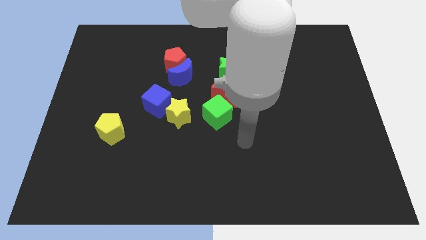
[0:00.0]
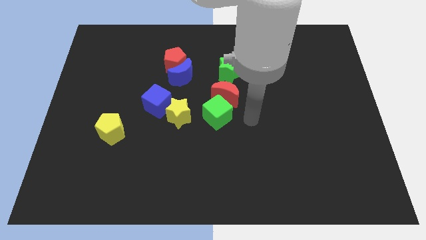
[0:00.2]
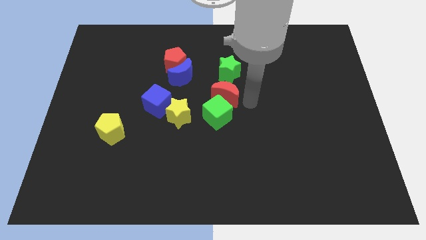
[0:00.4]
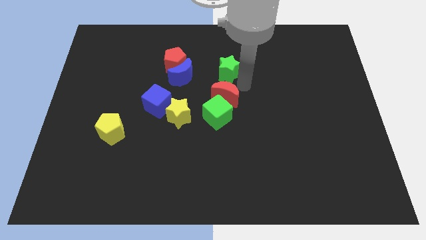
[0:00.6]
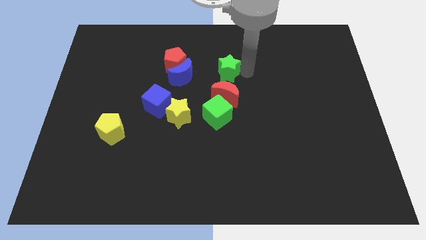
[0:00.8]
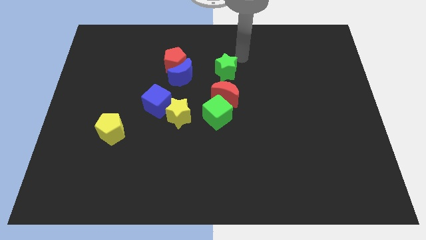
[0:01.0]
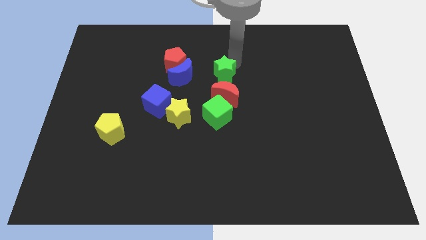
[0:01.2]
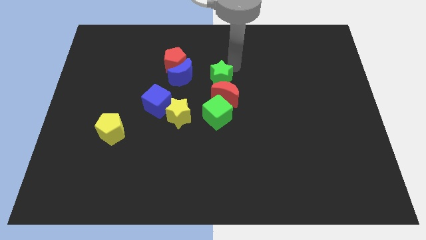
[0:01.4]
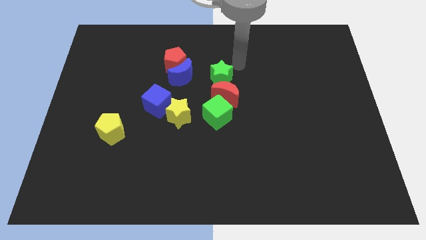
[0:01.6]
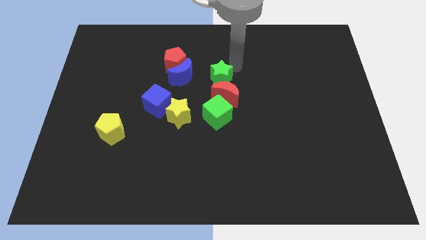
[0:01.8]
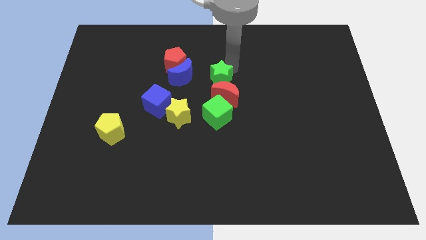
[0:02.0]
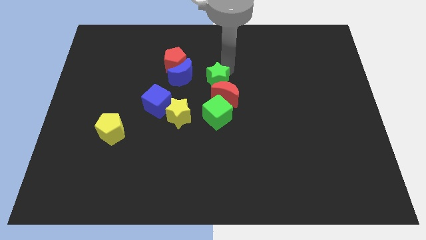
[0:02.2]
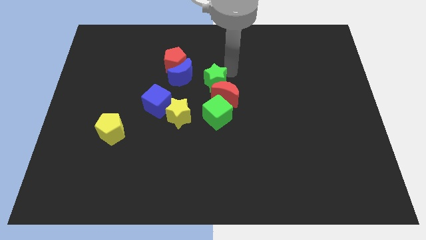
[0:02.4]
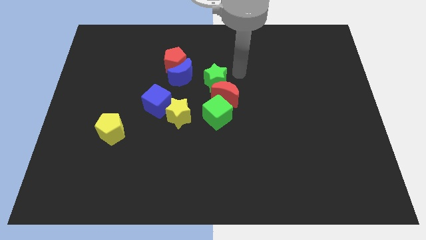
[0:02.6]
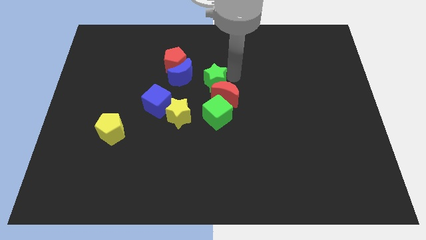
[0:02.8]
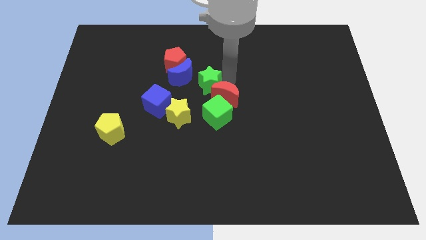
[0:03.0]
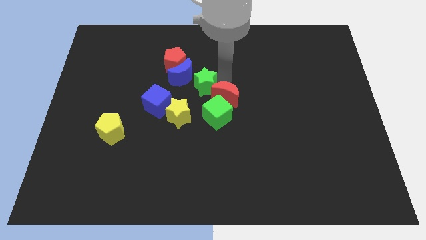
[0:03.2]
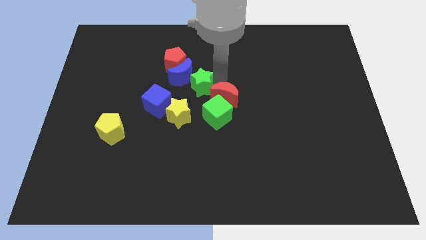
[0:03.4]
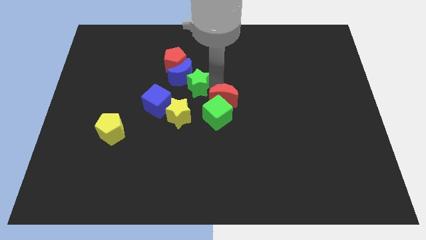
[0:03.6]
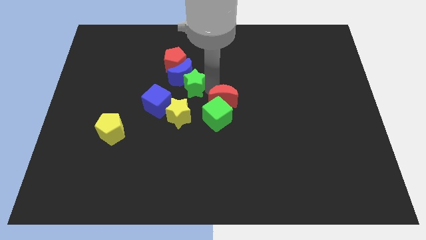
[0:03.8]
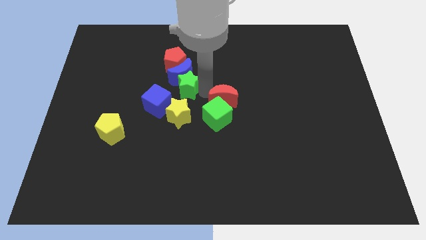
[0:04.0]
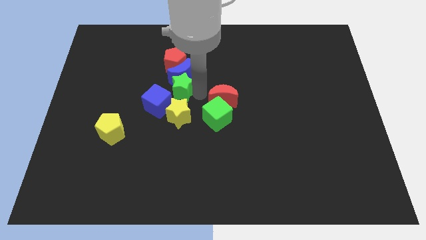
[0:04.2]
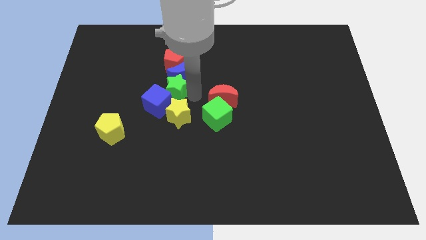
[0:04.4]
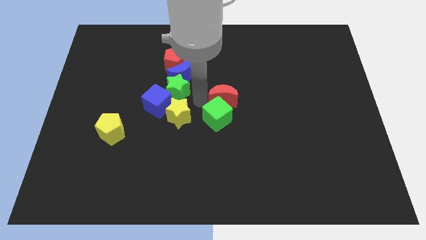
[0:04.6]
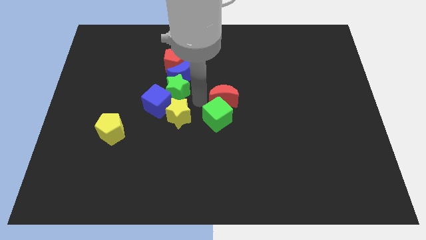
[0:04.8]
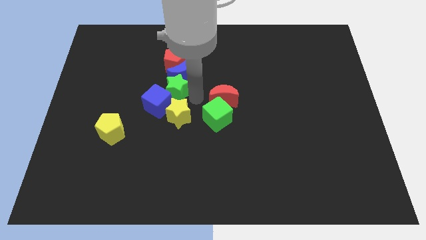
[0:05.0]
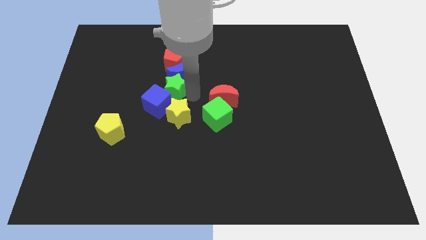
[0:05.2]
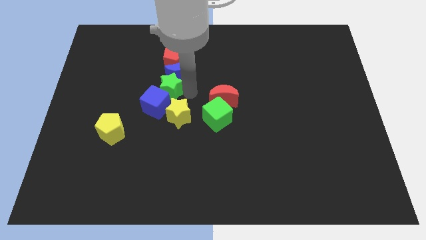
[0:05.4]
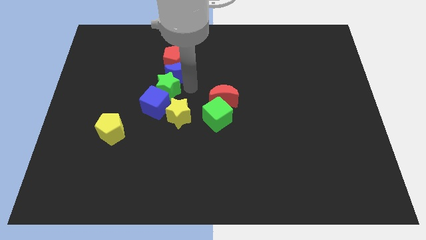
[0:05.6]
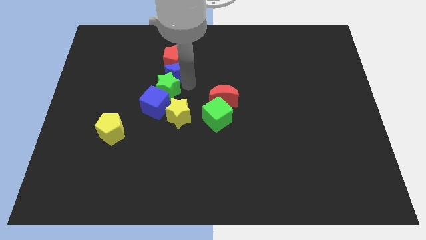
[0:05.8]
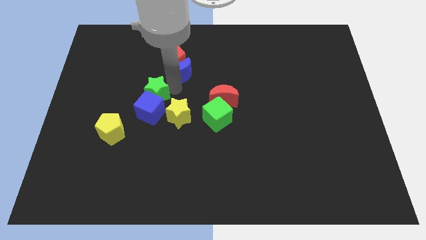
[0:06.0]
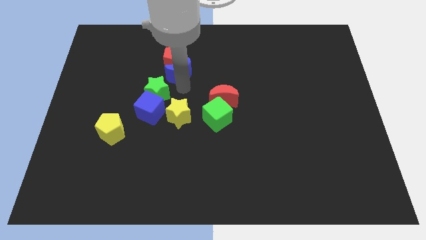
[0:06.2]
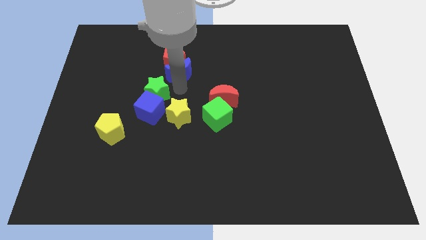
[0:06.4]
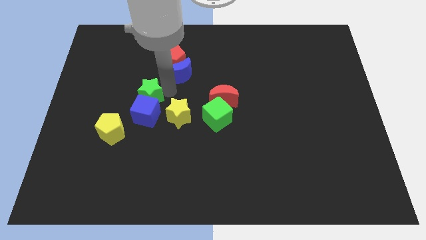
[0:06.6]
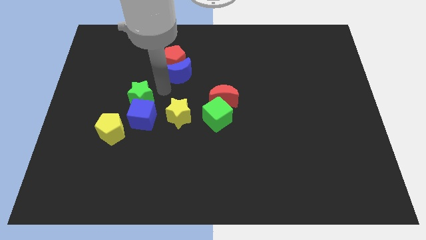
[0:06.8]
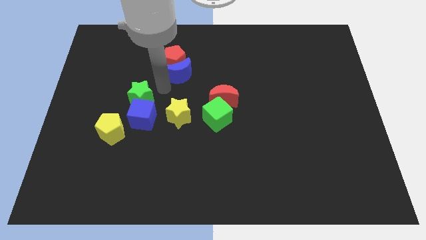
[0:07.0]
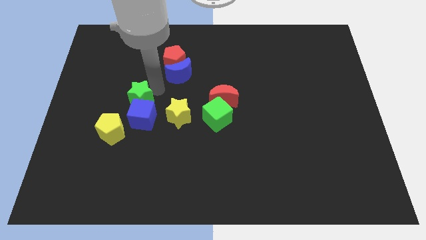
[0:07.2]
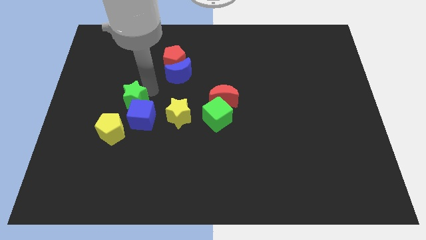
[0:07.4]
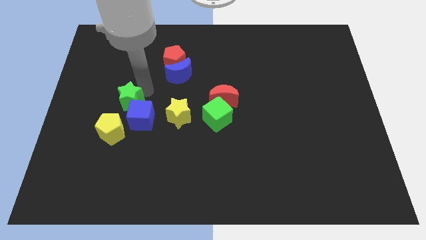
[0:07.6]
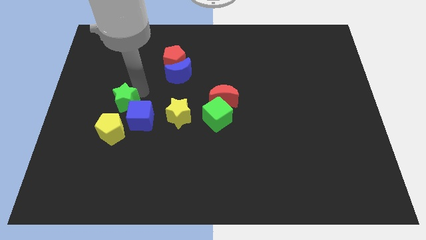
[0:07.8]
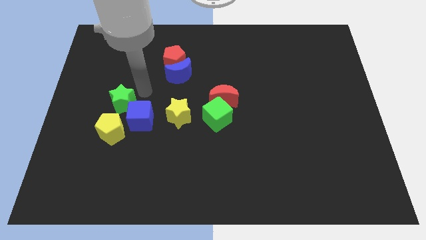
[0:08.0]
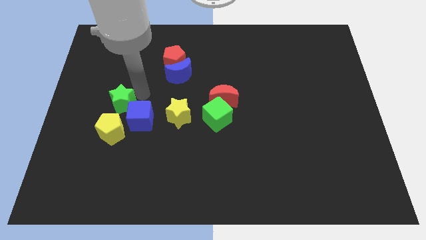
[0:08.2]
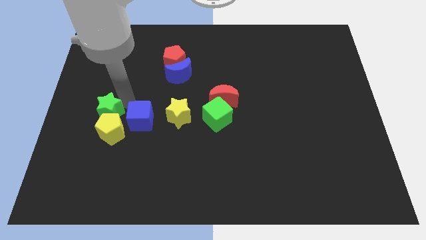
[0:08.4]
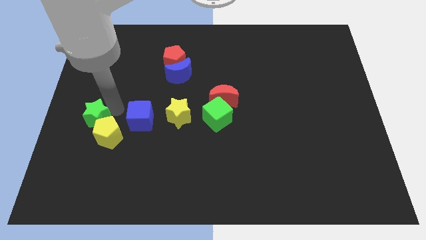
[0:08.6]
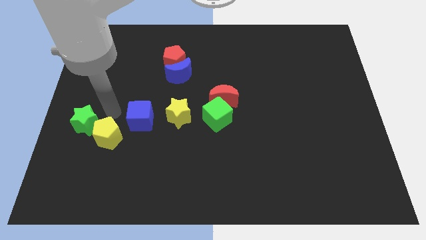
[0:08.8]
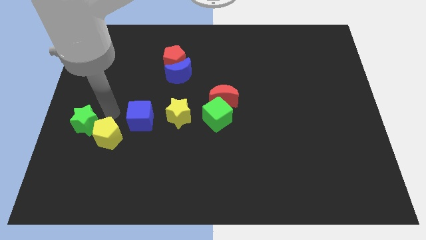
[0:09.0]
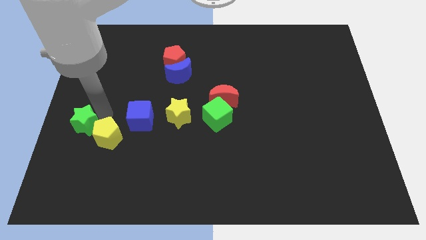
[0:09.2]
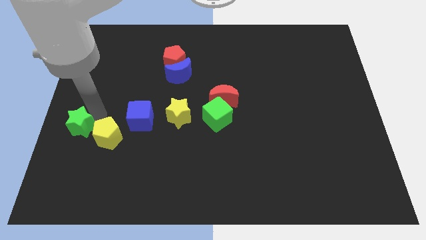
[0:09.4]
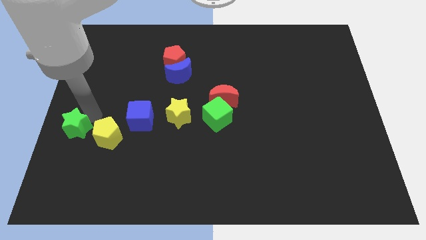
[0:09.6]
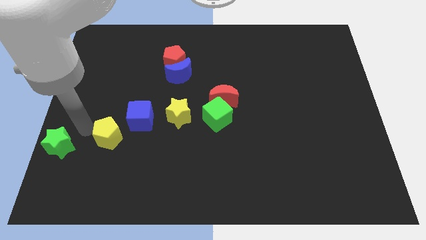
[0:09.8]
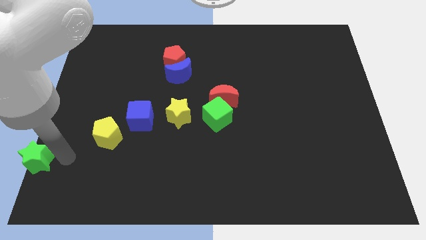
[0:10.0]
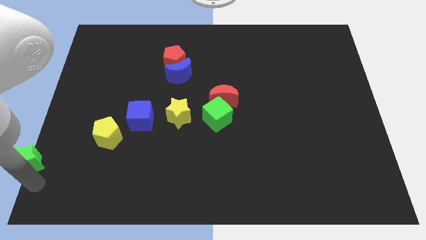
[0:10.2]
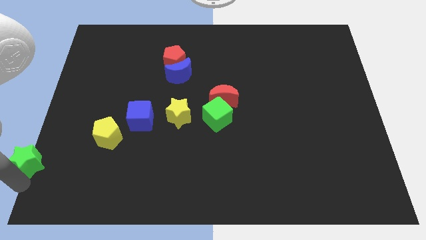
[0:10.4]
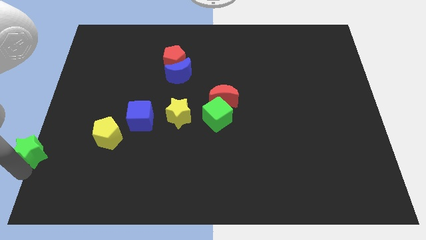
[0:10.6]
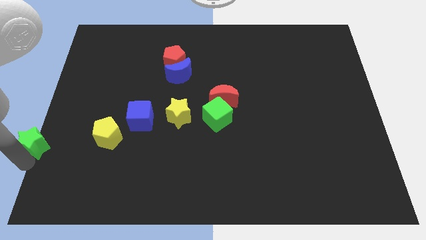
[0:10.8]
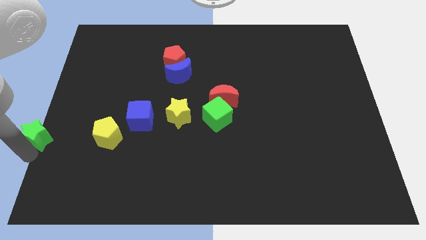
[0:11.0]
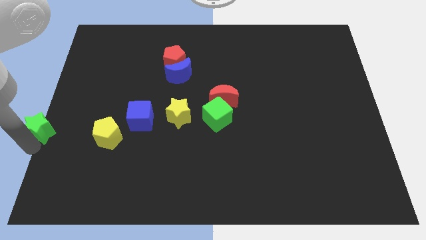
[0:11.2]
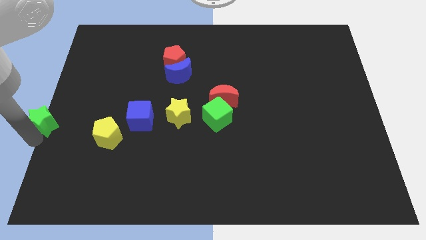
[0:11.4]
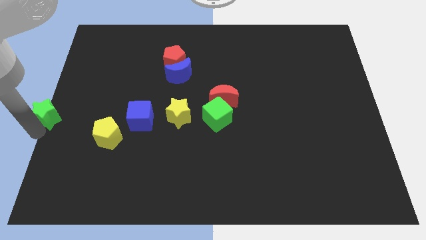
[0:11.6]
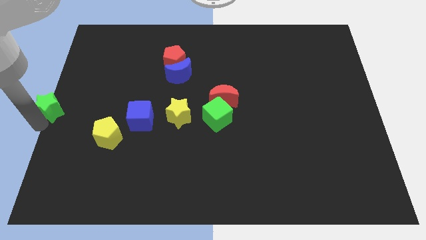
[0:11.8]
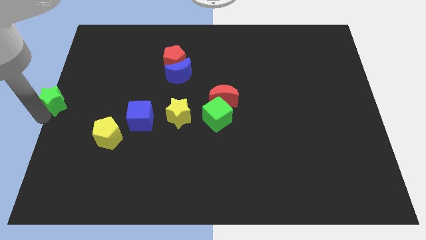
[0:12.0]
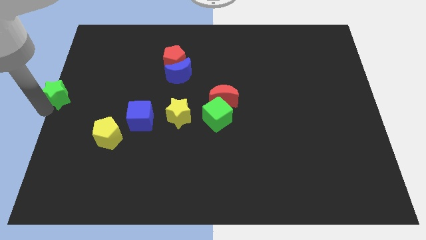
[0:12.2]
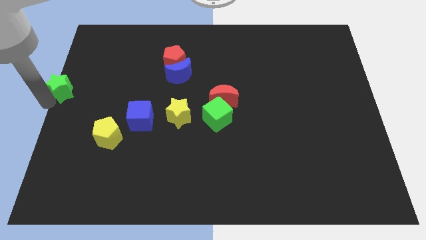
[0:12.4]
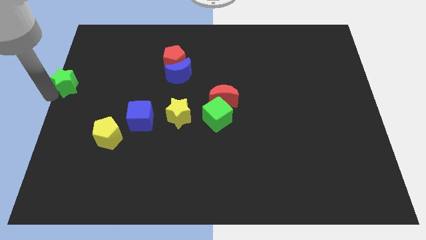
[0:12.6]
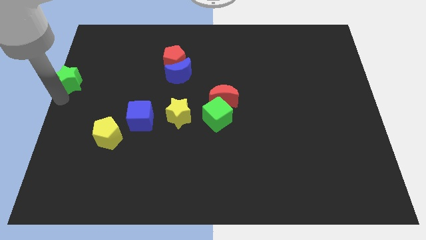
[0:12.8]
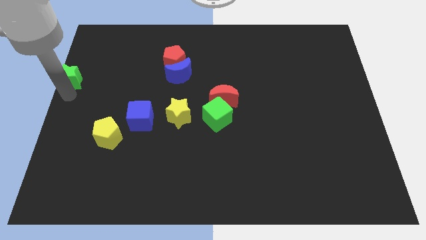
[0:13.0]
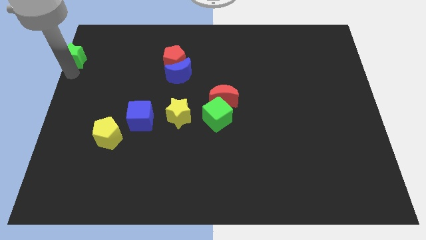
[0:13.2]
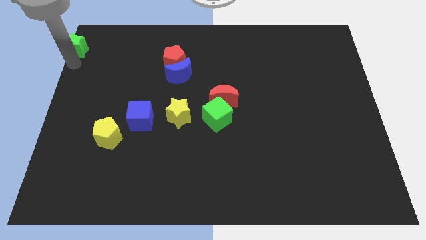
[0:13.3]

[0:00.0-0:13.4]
push the green star to the top left

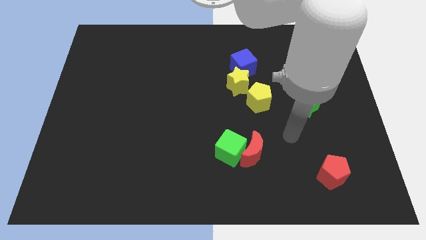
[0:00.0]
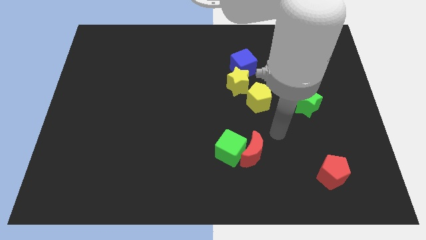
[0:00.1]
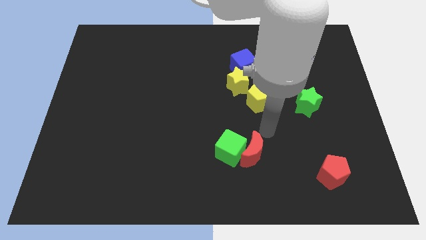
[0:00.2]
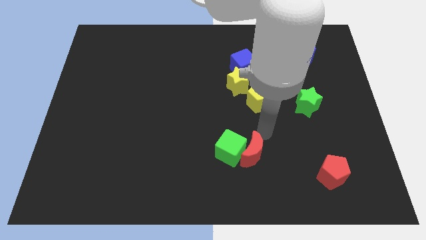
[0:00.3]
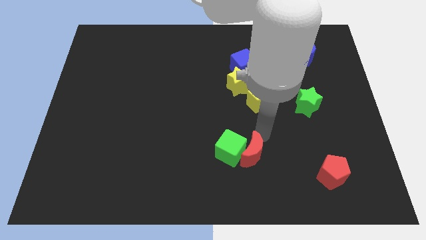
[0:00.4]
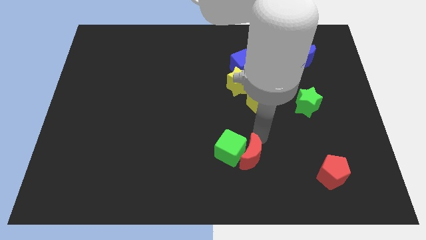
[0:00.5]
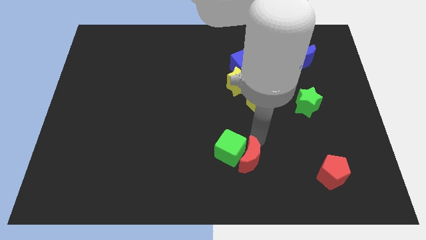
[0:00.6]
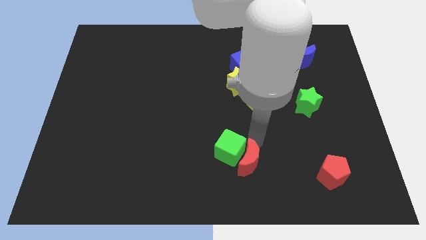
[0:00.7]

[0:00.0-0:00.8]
move the red moon to the bottom side
